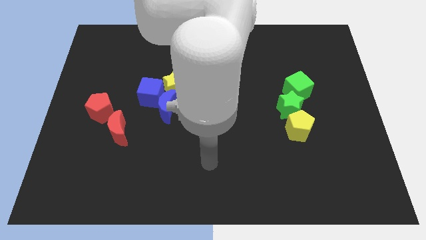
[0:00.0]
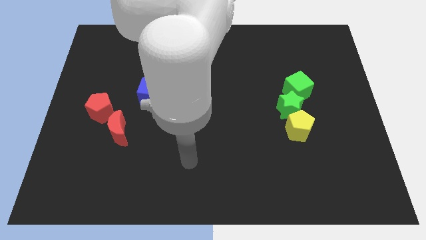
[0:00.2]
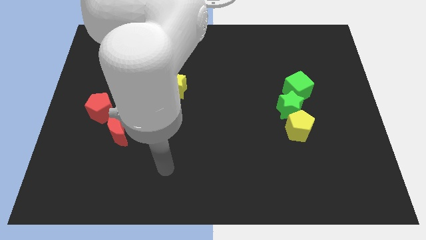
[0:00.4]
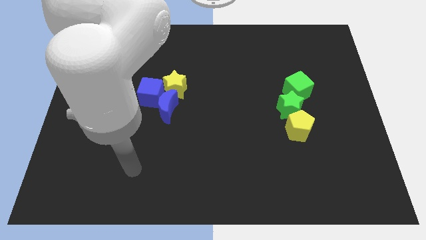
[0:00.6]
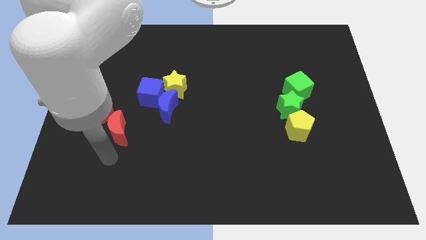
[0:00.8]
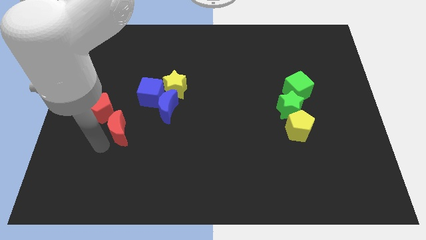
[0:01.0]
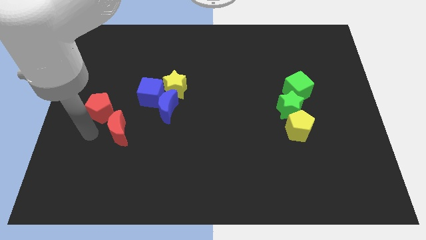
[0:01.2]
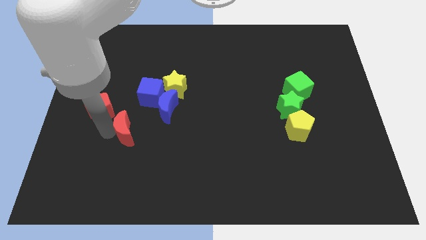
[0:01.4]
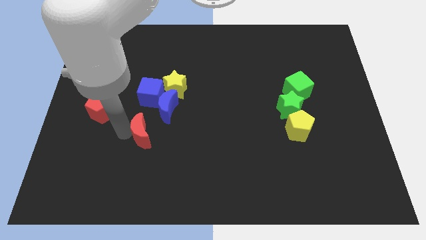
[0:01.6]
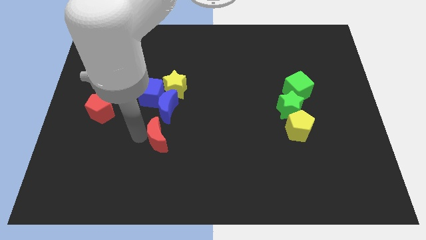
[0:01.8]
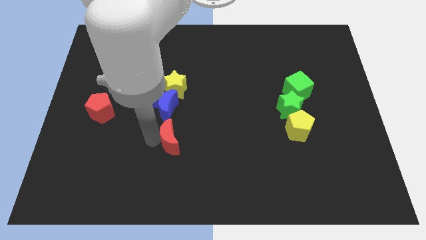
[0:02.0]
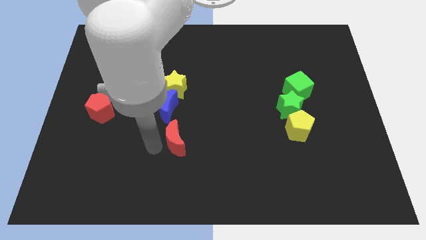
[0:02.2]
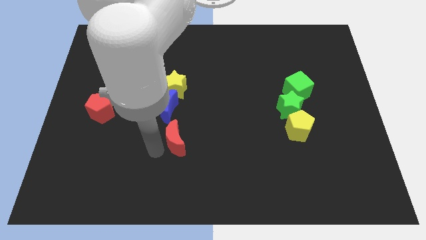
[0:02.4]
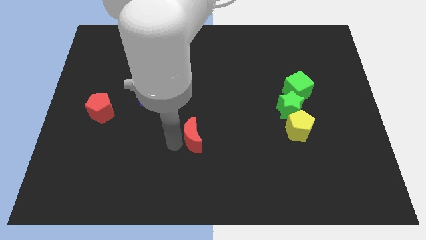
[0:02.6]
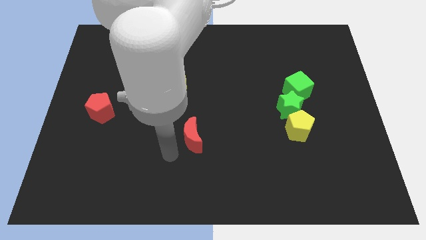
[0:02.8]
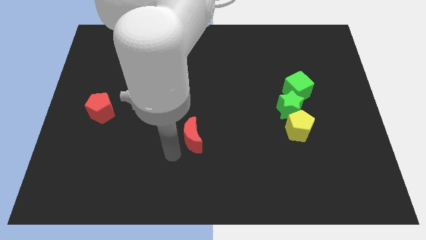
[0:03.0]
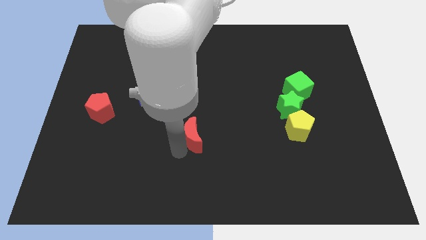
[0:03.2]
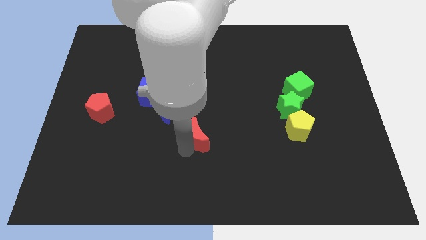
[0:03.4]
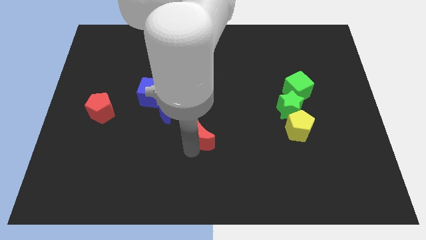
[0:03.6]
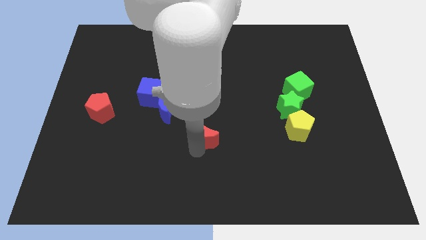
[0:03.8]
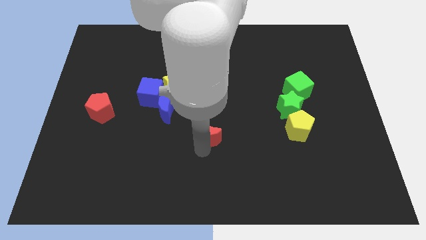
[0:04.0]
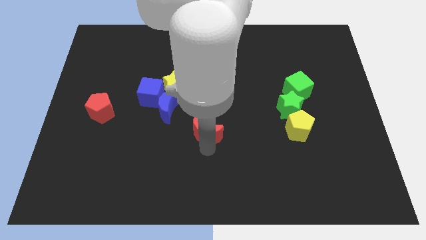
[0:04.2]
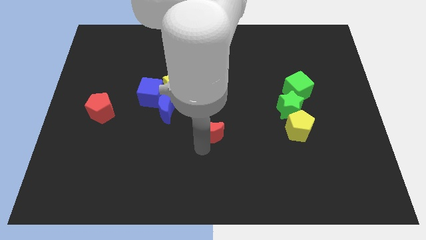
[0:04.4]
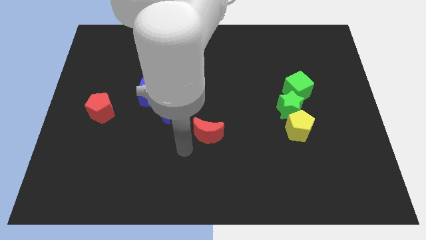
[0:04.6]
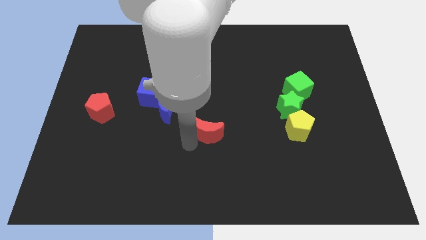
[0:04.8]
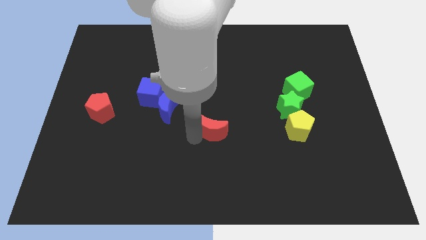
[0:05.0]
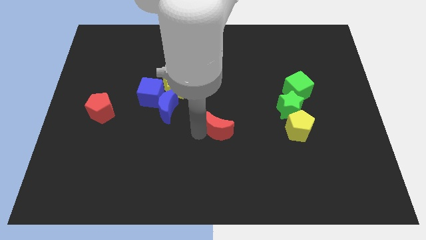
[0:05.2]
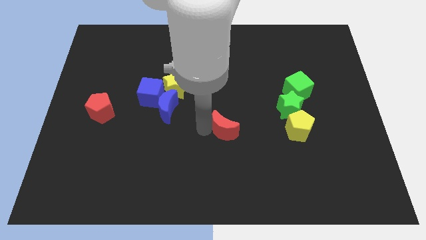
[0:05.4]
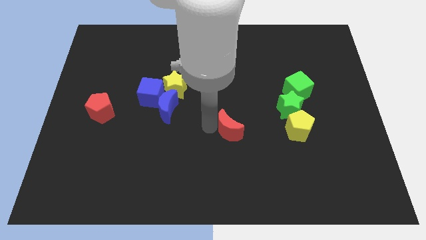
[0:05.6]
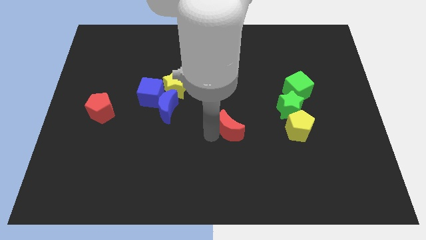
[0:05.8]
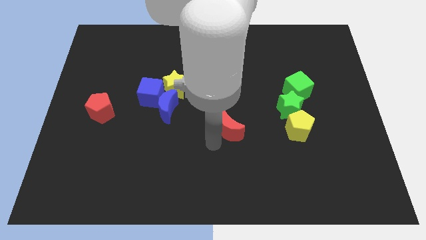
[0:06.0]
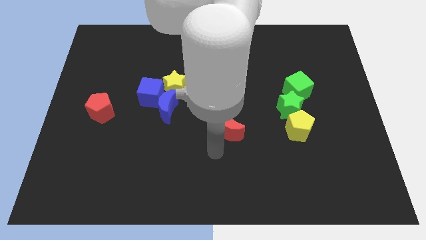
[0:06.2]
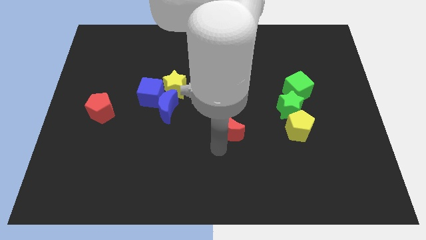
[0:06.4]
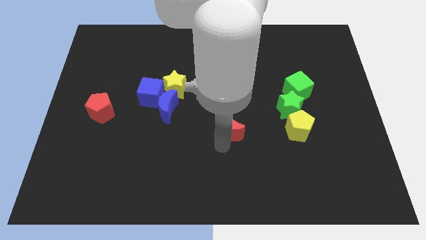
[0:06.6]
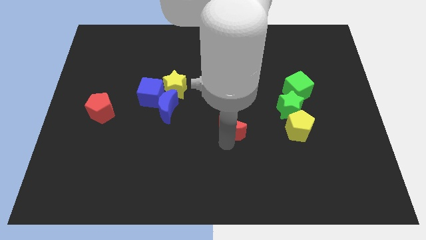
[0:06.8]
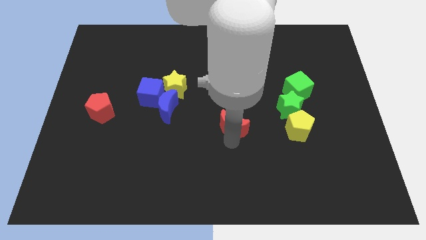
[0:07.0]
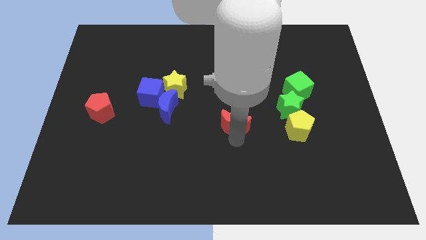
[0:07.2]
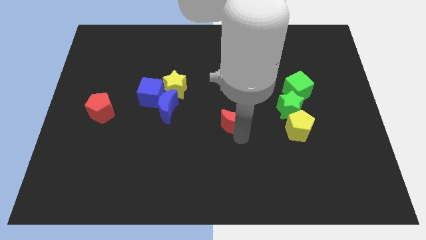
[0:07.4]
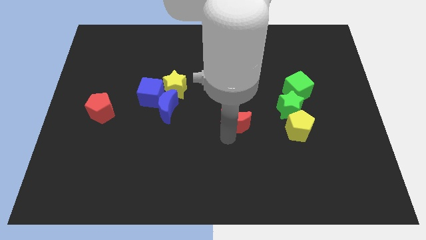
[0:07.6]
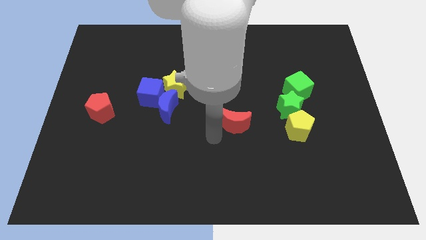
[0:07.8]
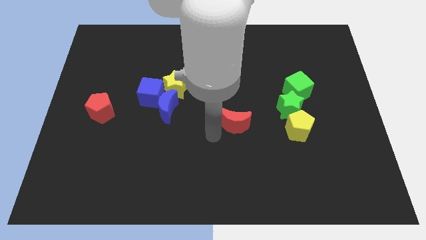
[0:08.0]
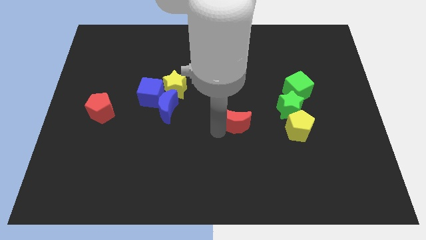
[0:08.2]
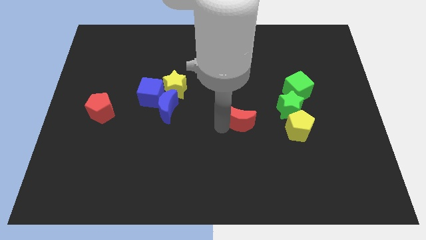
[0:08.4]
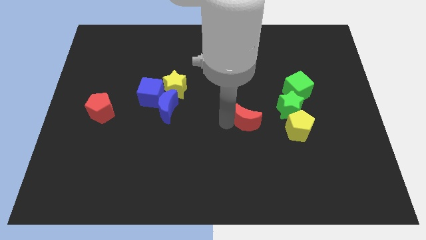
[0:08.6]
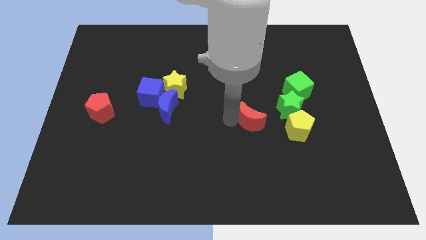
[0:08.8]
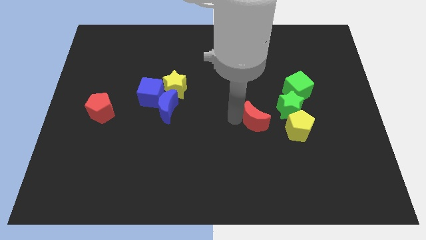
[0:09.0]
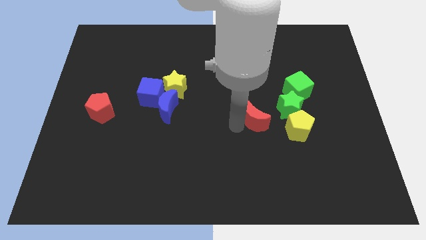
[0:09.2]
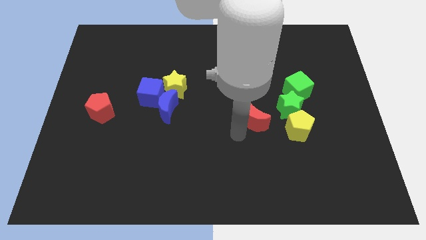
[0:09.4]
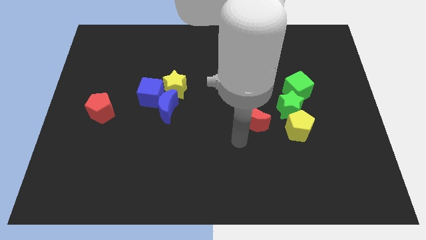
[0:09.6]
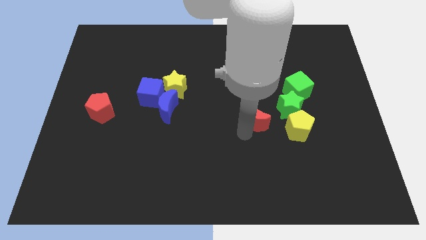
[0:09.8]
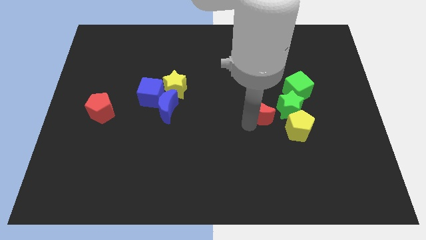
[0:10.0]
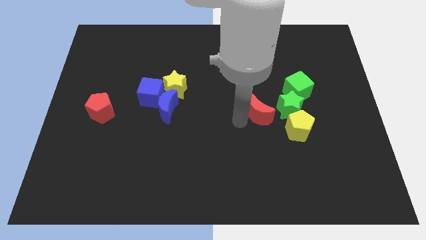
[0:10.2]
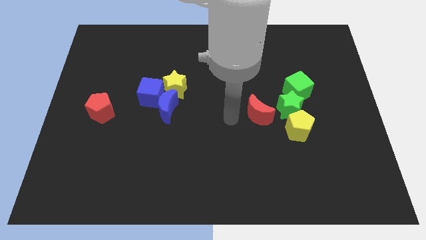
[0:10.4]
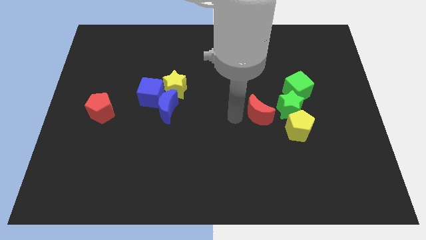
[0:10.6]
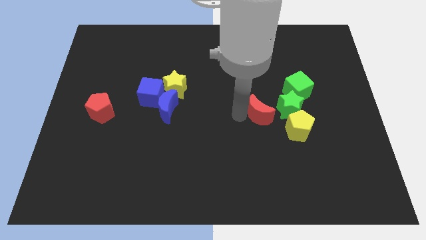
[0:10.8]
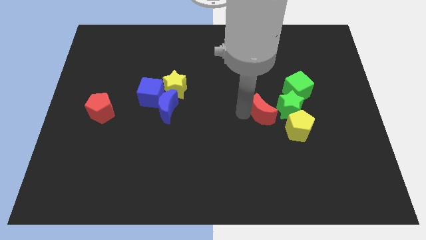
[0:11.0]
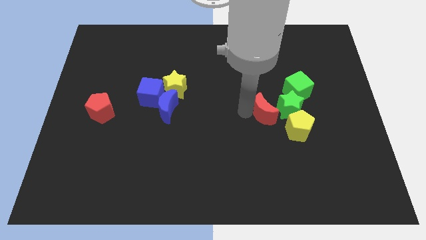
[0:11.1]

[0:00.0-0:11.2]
put the red moon towards the green star

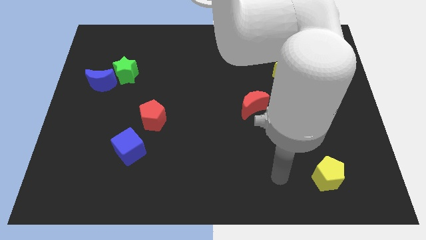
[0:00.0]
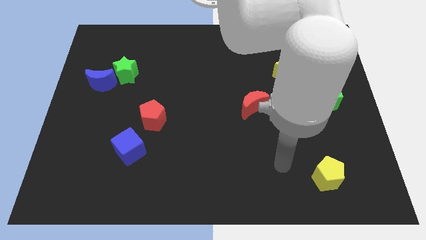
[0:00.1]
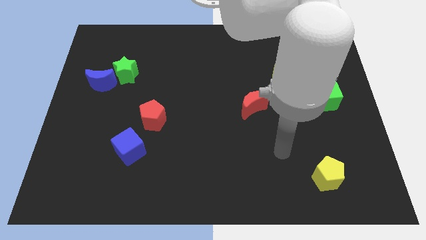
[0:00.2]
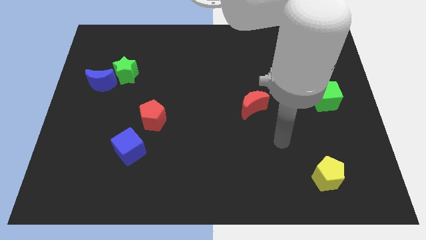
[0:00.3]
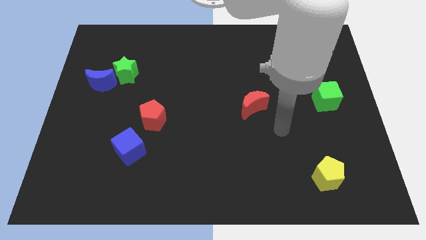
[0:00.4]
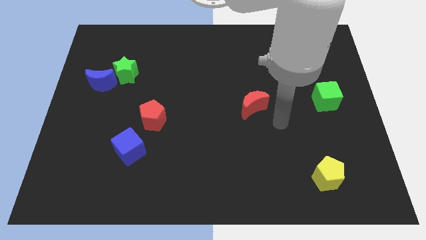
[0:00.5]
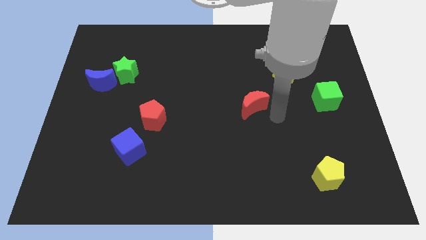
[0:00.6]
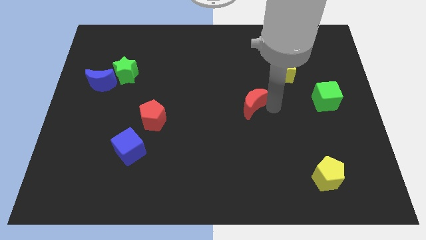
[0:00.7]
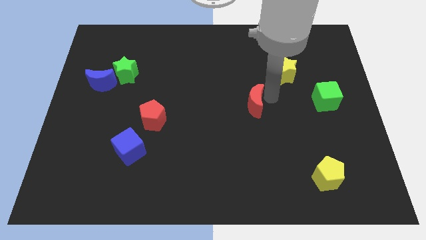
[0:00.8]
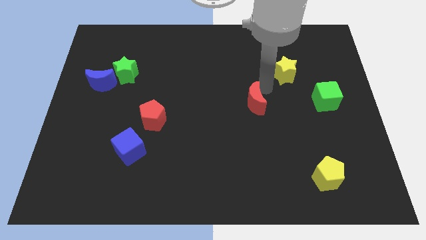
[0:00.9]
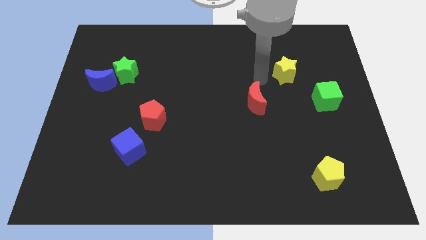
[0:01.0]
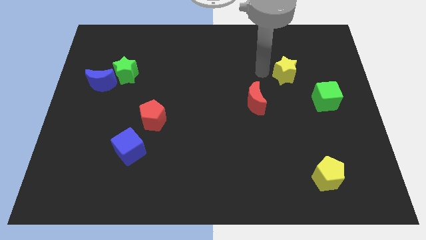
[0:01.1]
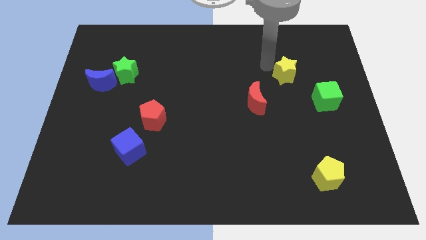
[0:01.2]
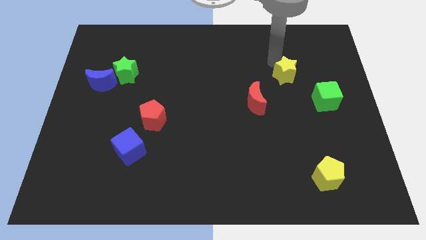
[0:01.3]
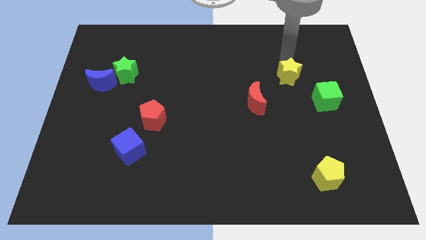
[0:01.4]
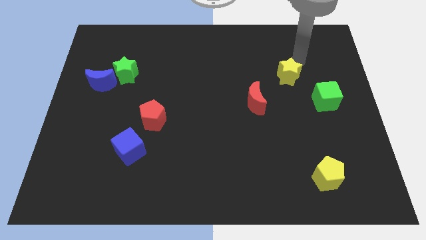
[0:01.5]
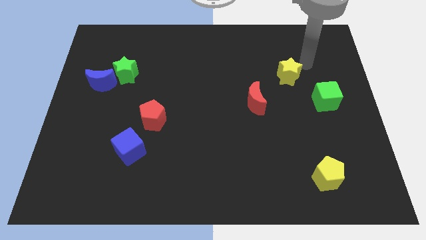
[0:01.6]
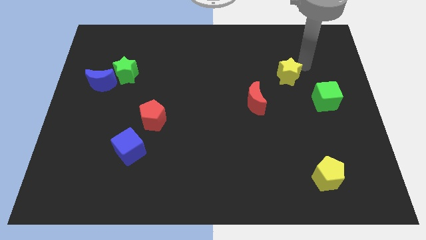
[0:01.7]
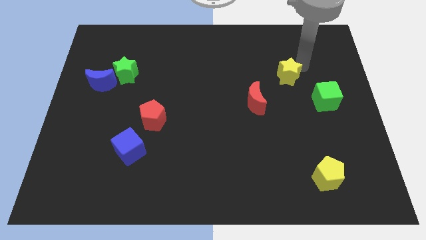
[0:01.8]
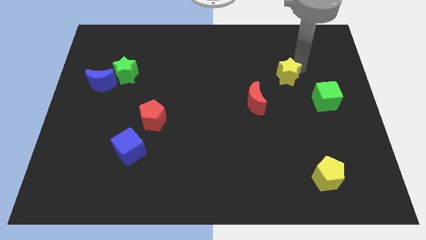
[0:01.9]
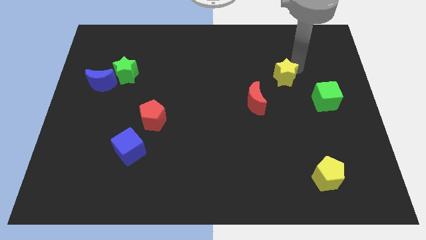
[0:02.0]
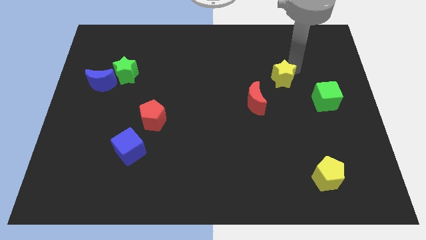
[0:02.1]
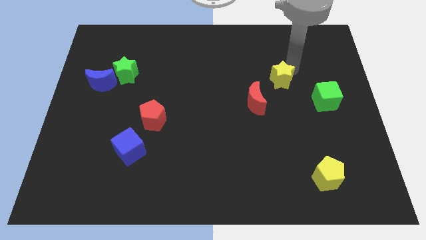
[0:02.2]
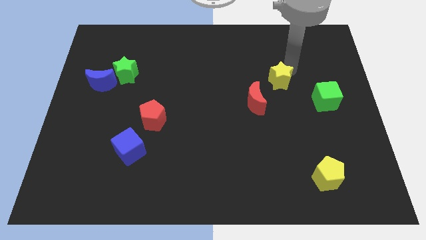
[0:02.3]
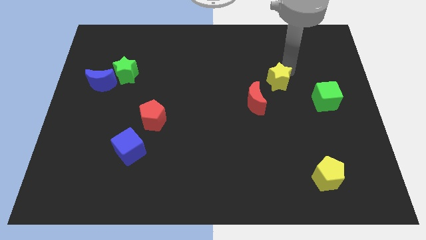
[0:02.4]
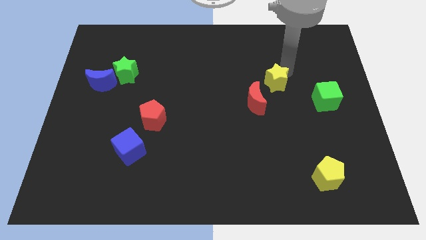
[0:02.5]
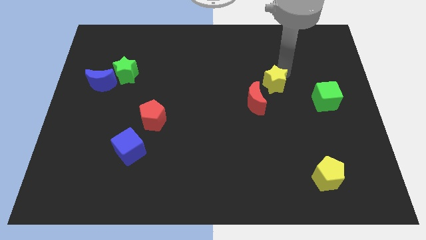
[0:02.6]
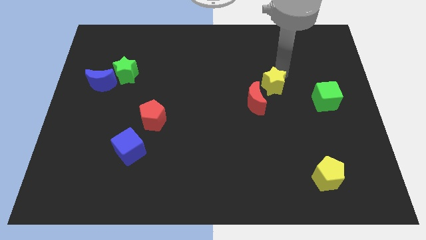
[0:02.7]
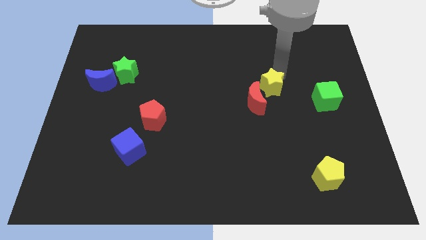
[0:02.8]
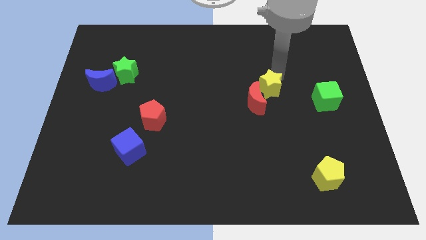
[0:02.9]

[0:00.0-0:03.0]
put the yellow star close to the red moon
